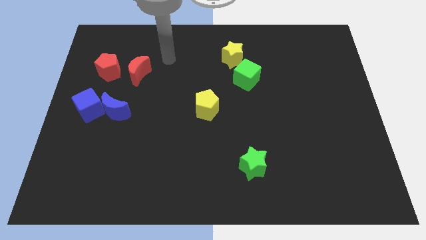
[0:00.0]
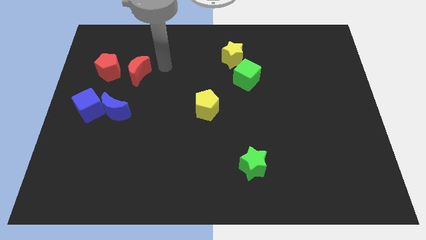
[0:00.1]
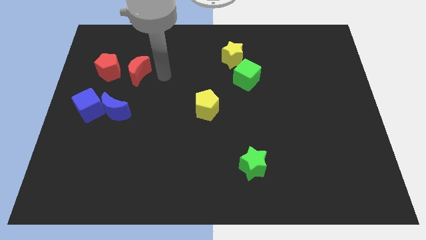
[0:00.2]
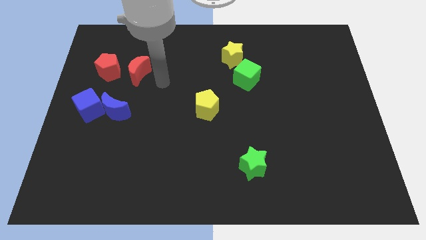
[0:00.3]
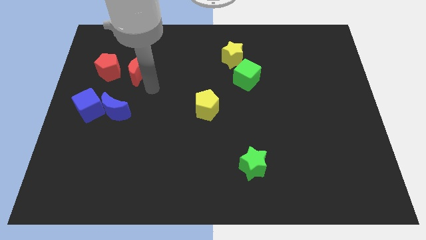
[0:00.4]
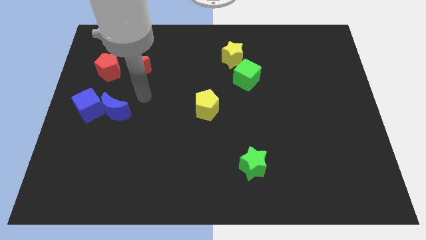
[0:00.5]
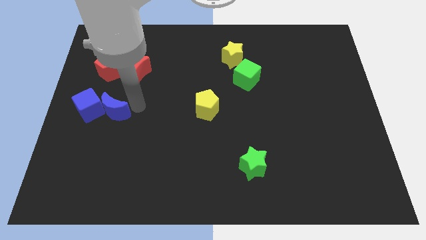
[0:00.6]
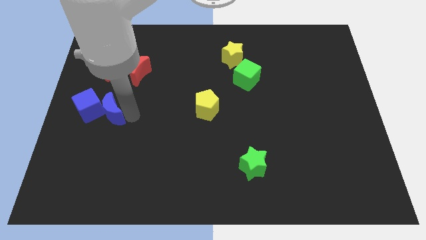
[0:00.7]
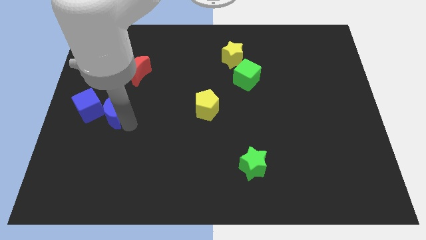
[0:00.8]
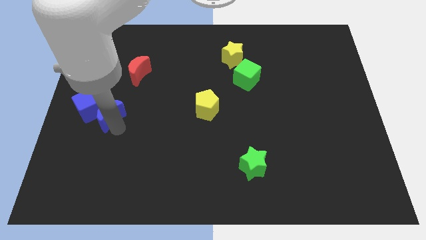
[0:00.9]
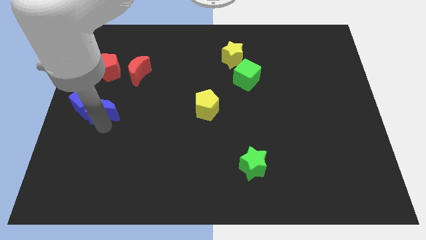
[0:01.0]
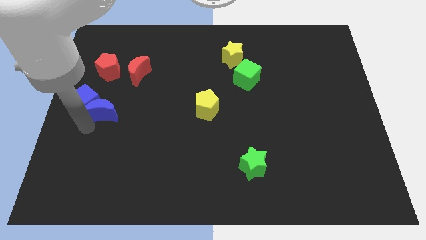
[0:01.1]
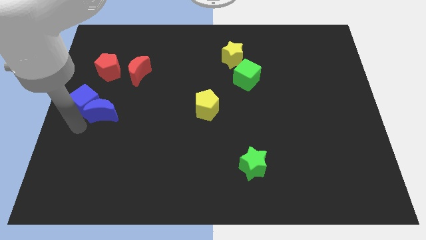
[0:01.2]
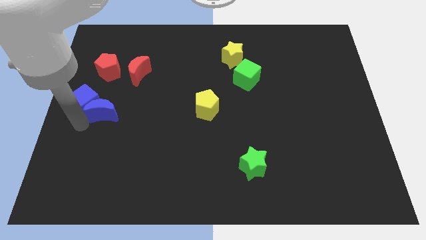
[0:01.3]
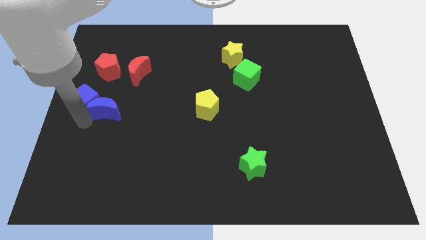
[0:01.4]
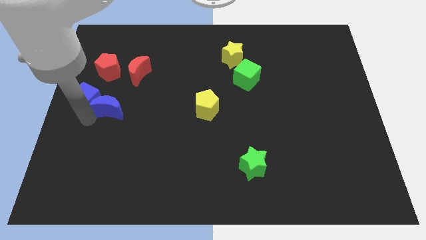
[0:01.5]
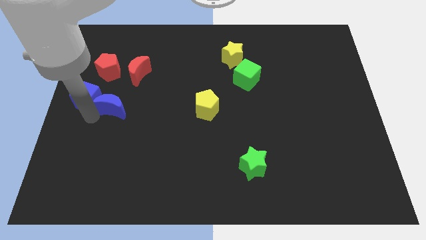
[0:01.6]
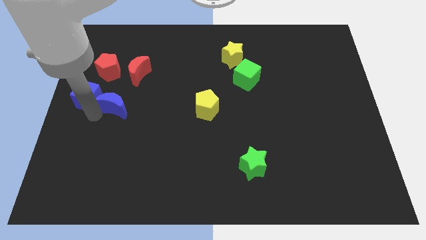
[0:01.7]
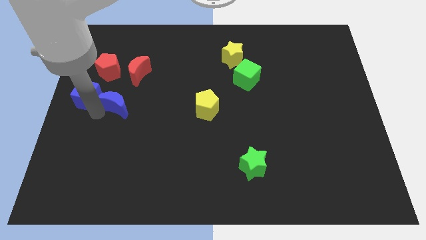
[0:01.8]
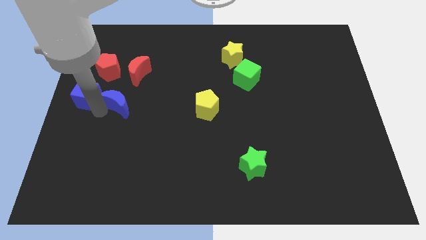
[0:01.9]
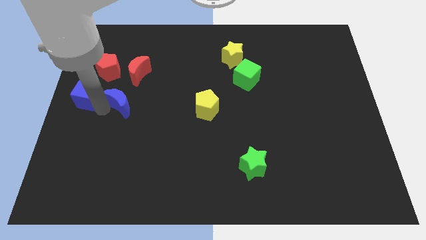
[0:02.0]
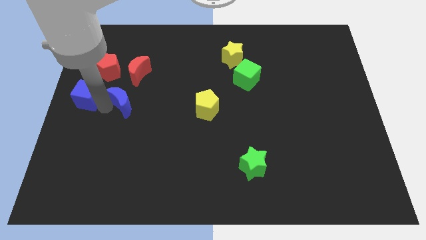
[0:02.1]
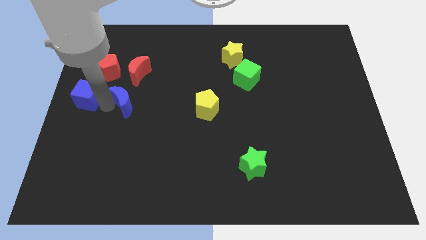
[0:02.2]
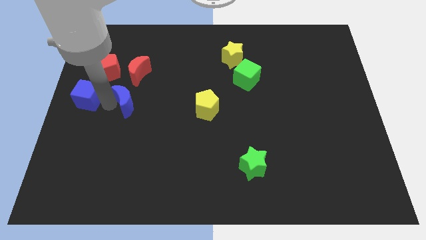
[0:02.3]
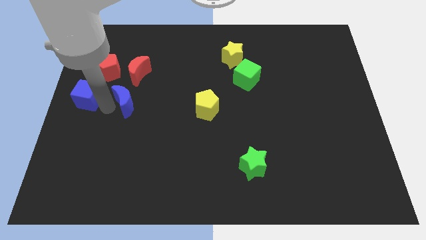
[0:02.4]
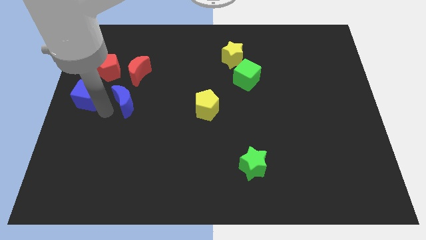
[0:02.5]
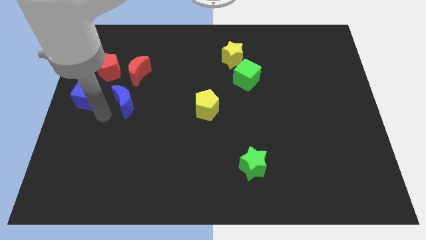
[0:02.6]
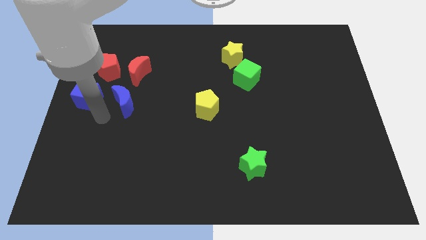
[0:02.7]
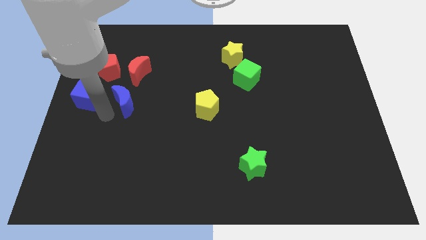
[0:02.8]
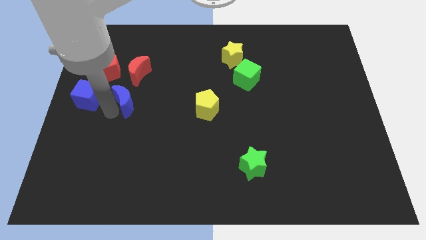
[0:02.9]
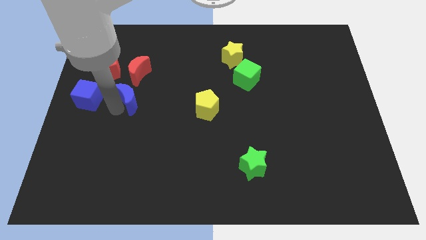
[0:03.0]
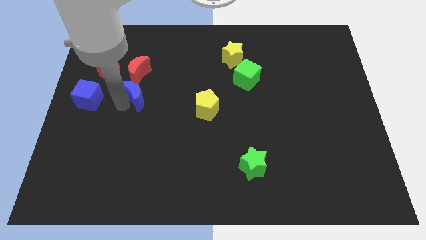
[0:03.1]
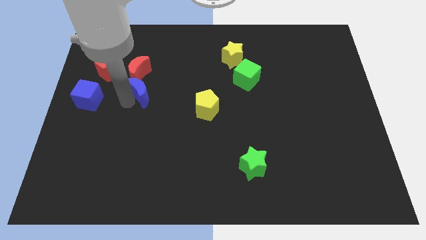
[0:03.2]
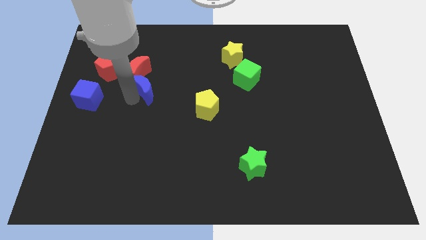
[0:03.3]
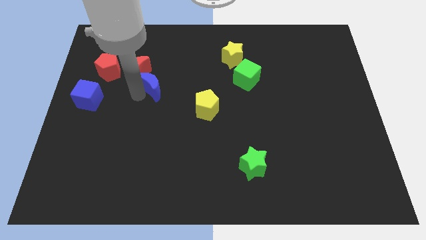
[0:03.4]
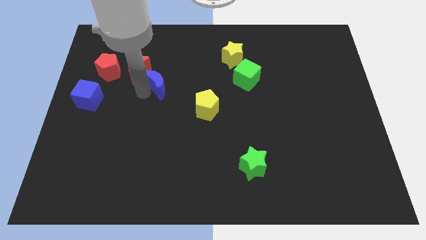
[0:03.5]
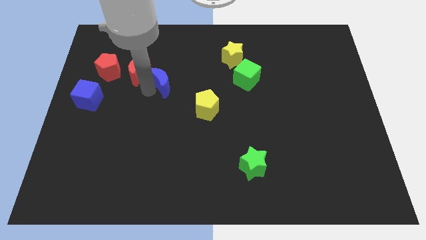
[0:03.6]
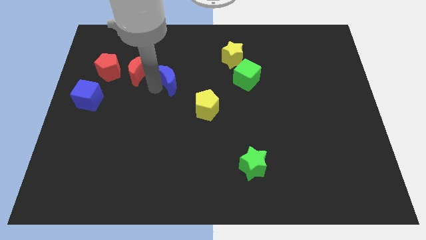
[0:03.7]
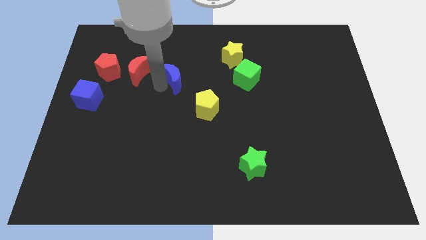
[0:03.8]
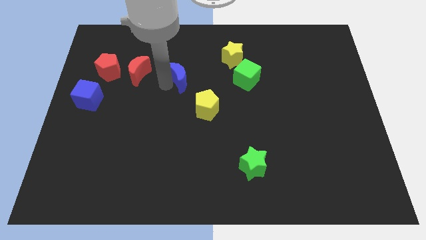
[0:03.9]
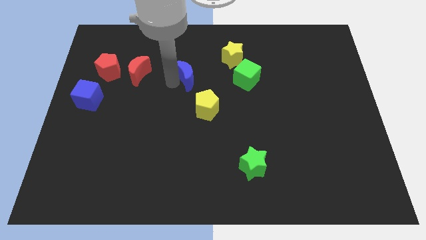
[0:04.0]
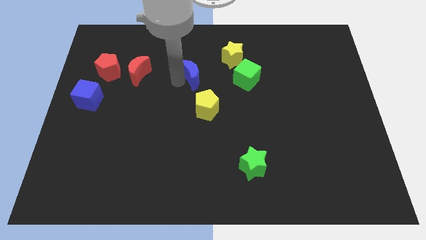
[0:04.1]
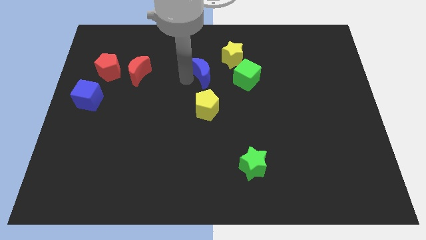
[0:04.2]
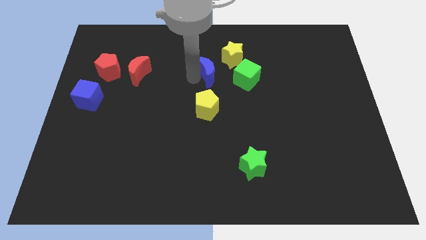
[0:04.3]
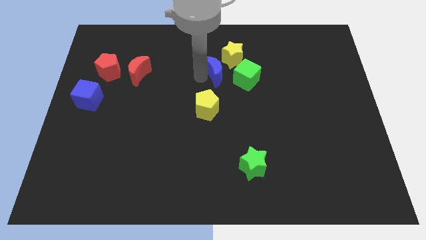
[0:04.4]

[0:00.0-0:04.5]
slide the blue moon to the top left of the green cube

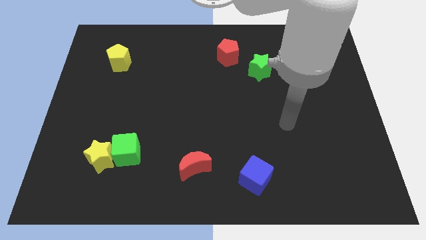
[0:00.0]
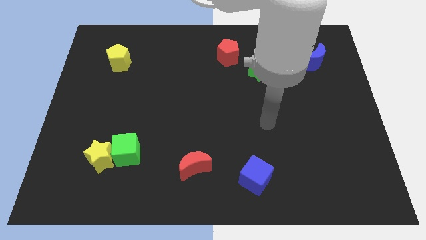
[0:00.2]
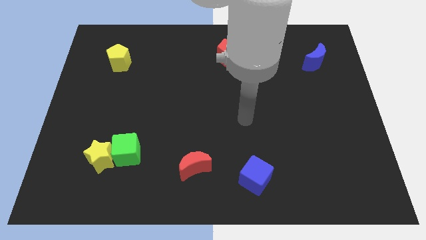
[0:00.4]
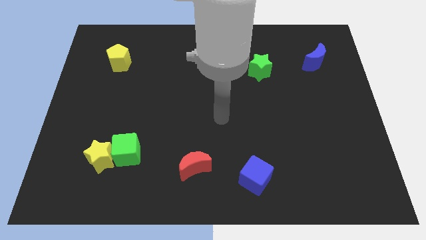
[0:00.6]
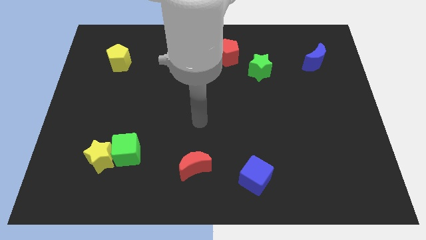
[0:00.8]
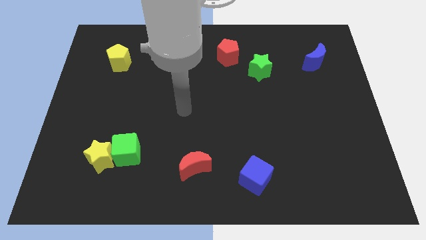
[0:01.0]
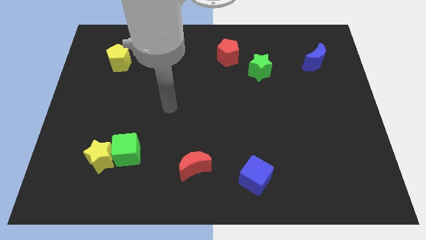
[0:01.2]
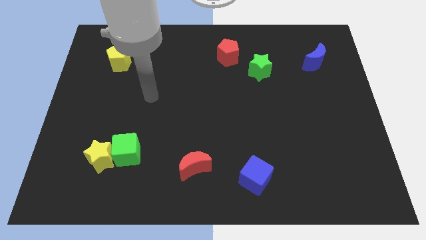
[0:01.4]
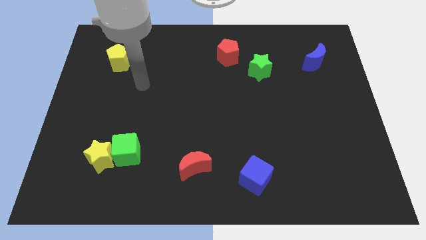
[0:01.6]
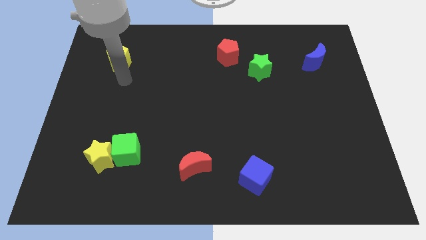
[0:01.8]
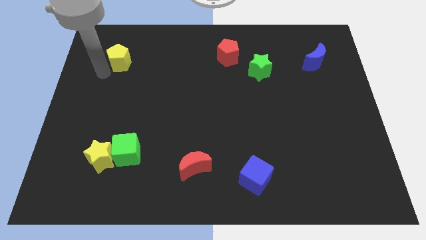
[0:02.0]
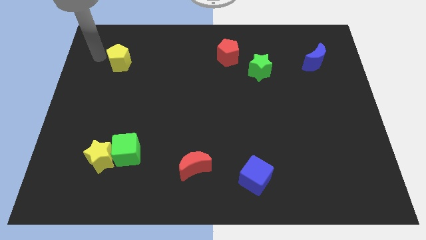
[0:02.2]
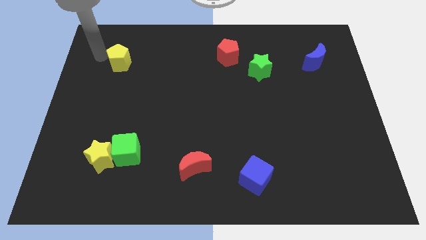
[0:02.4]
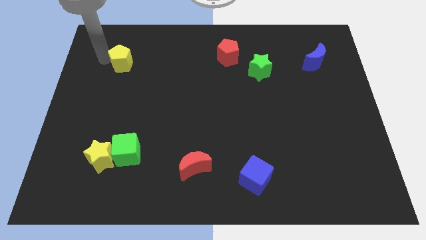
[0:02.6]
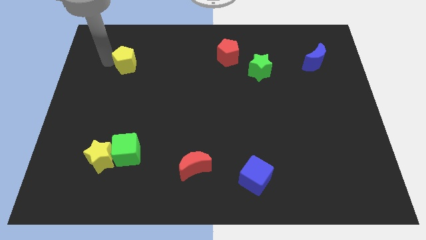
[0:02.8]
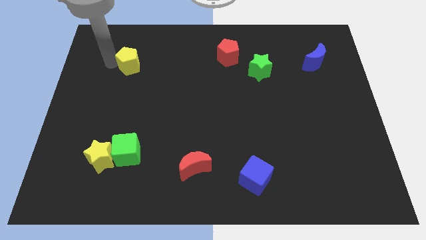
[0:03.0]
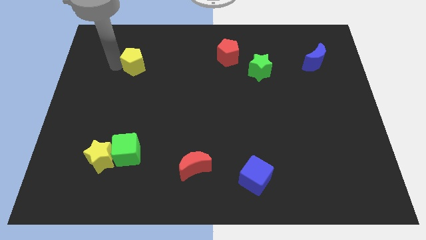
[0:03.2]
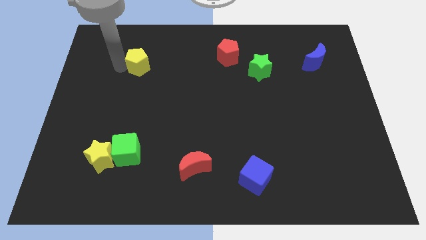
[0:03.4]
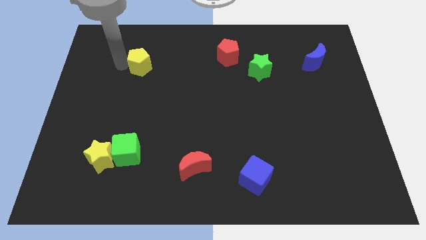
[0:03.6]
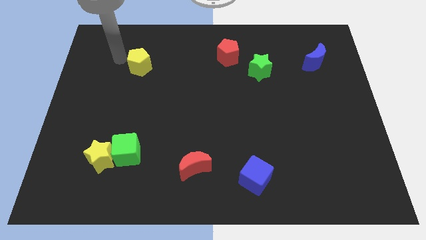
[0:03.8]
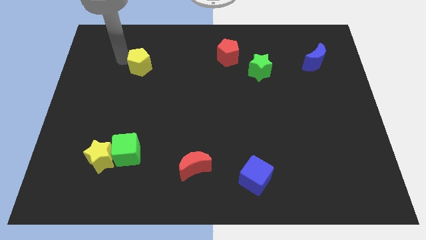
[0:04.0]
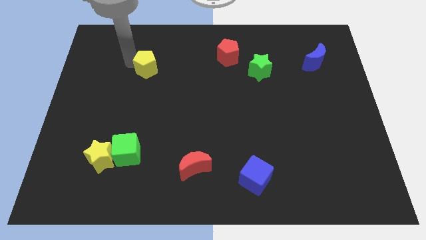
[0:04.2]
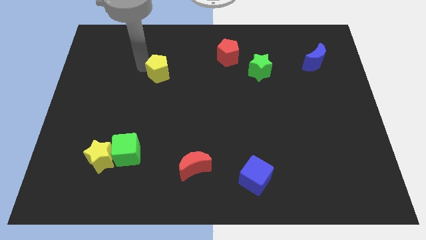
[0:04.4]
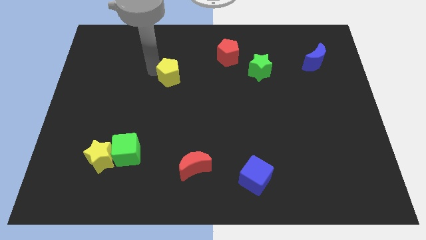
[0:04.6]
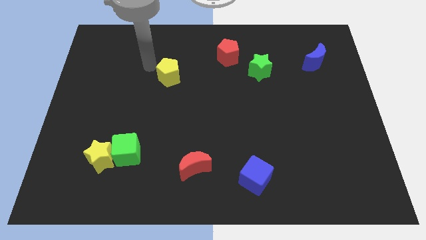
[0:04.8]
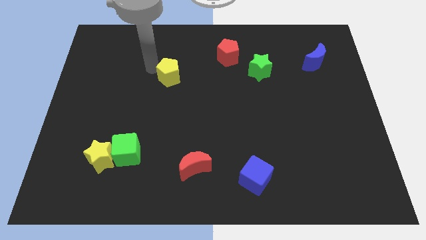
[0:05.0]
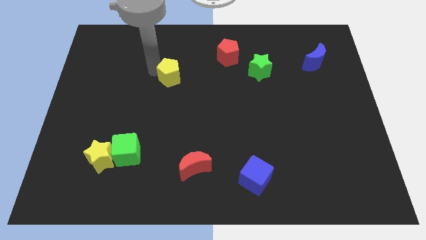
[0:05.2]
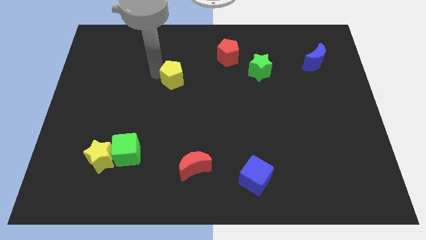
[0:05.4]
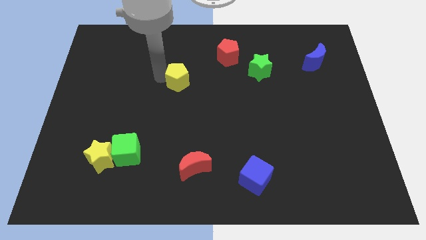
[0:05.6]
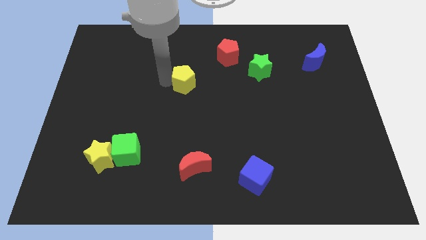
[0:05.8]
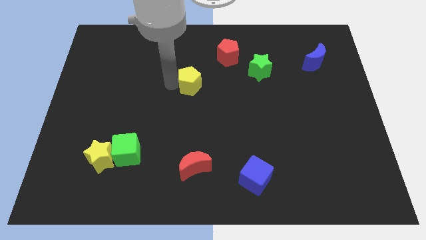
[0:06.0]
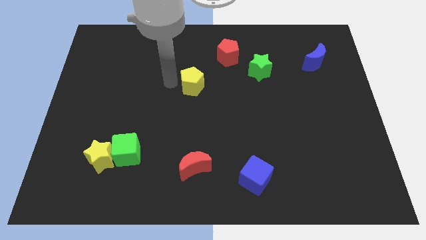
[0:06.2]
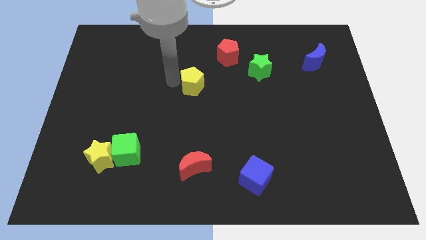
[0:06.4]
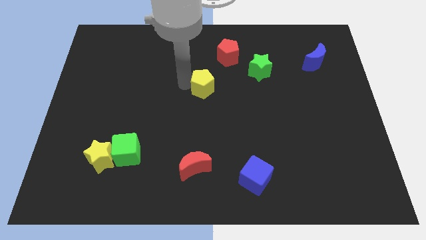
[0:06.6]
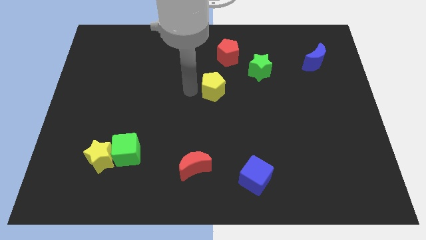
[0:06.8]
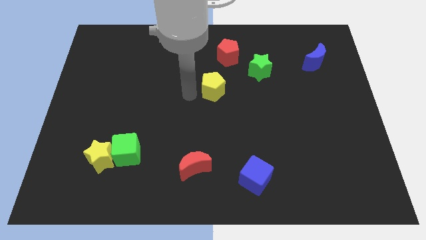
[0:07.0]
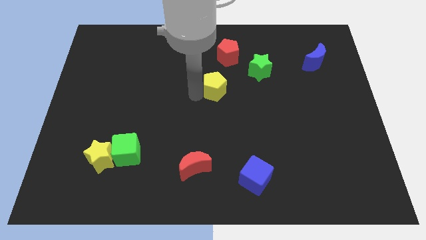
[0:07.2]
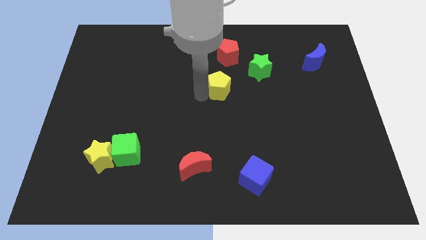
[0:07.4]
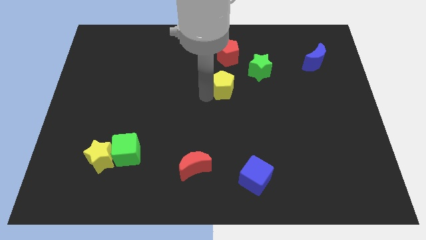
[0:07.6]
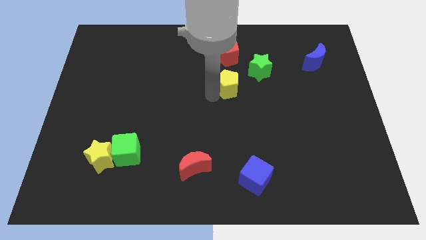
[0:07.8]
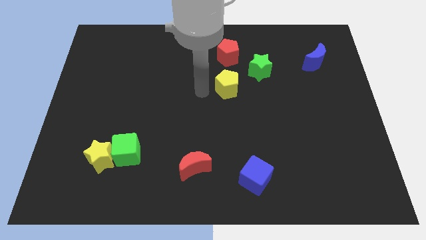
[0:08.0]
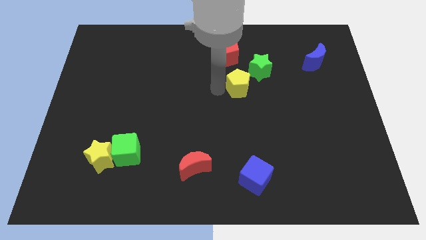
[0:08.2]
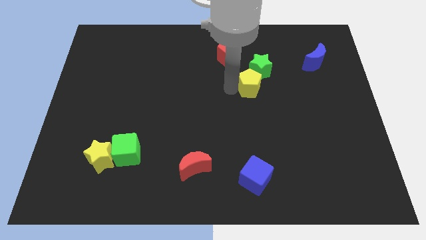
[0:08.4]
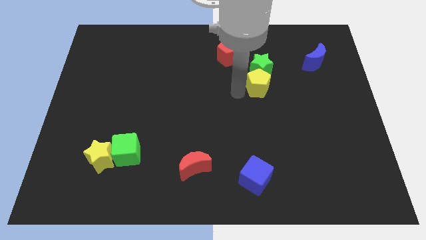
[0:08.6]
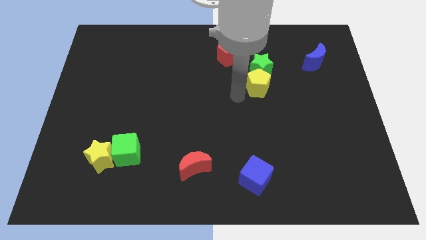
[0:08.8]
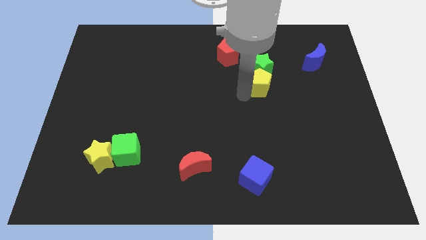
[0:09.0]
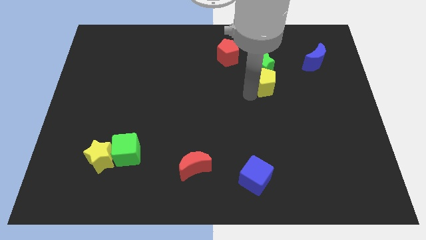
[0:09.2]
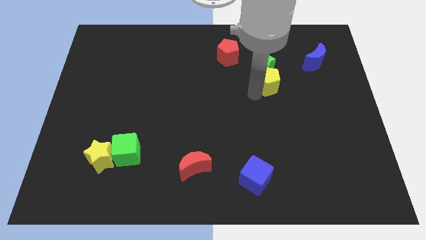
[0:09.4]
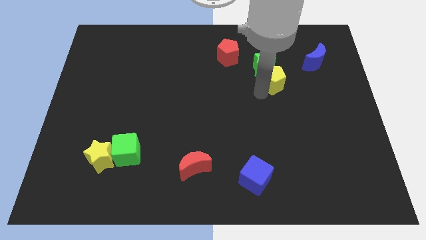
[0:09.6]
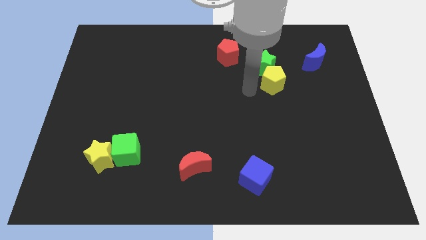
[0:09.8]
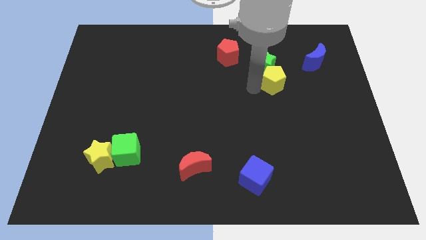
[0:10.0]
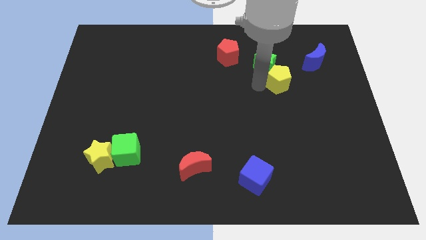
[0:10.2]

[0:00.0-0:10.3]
move the yellow pentagon to the bottom left side of the blue moon
